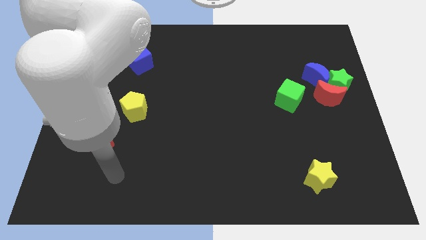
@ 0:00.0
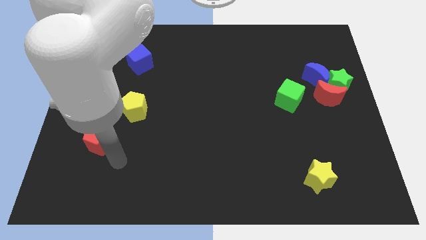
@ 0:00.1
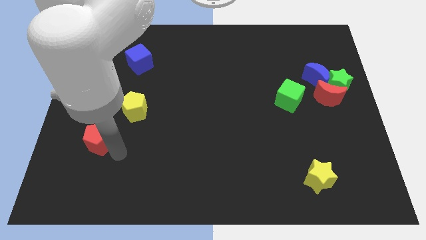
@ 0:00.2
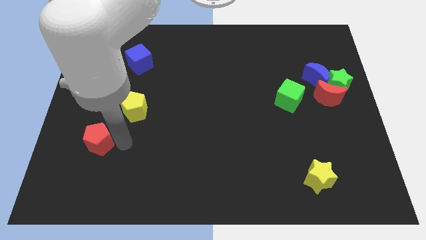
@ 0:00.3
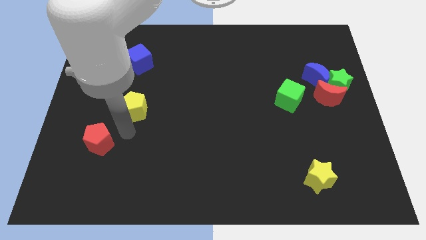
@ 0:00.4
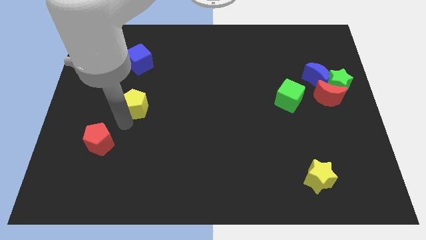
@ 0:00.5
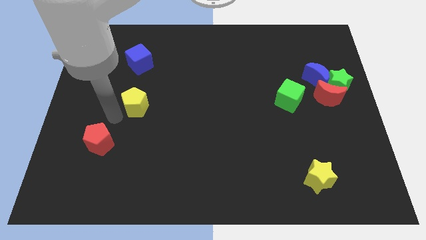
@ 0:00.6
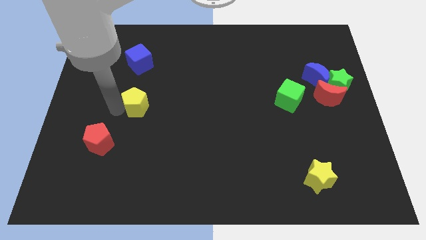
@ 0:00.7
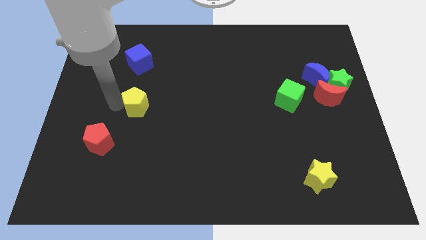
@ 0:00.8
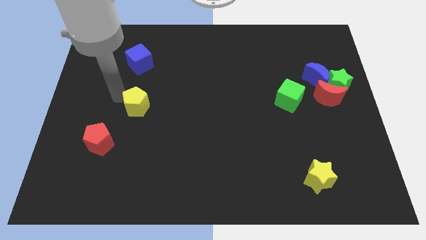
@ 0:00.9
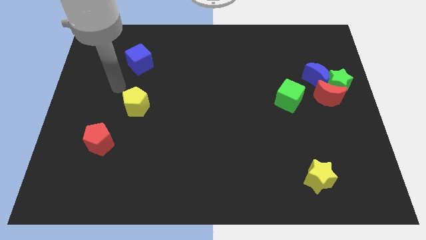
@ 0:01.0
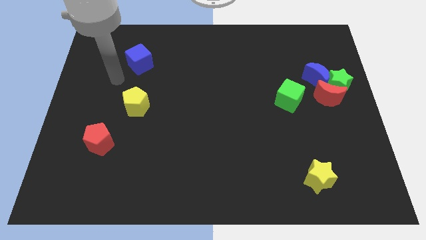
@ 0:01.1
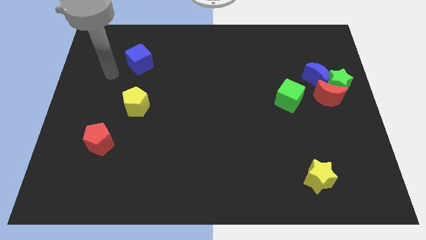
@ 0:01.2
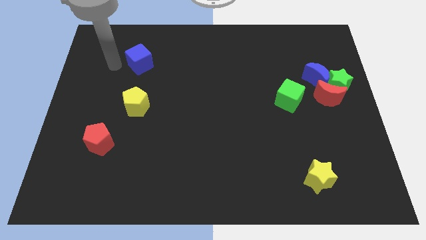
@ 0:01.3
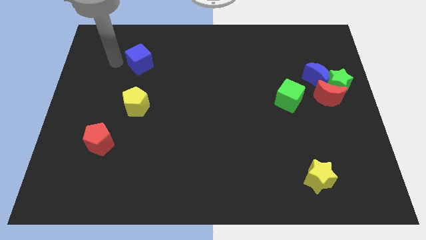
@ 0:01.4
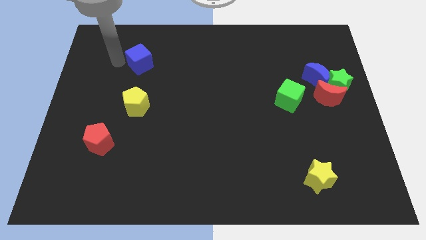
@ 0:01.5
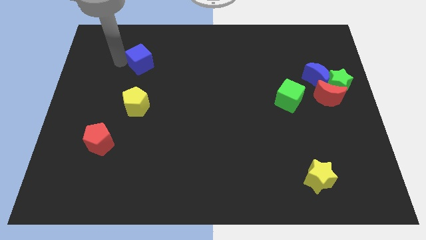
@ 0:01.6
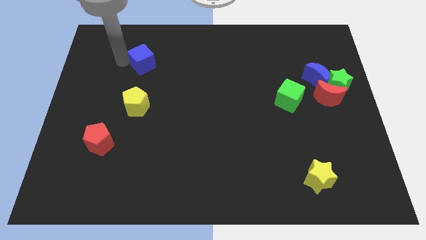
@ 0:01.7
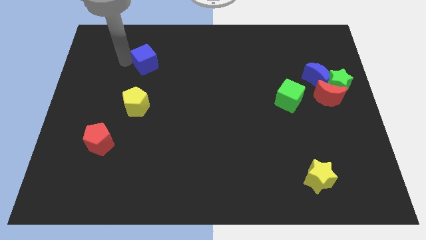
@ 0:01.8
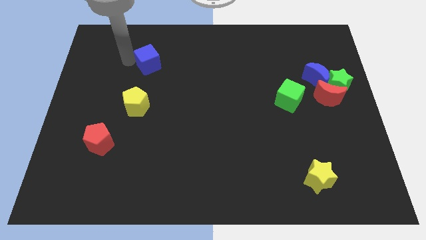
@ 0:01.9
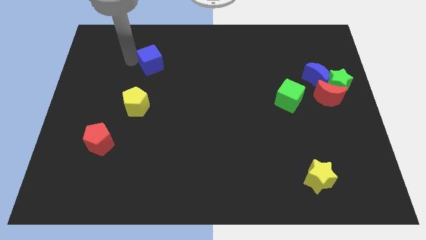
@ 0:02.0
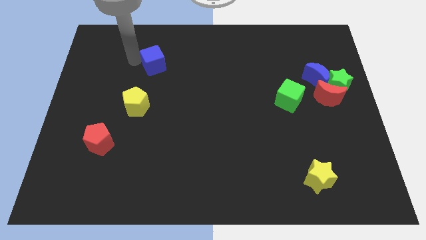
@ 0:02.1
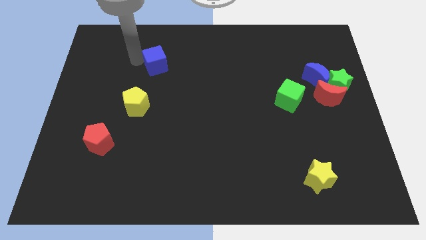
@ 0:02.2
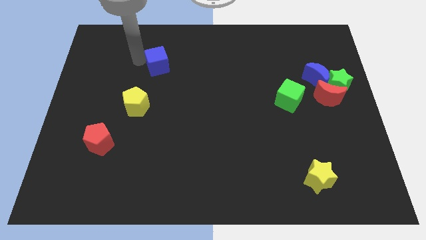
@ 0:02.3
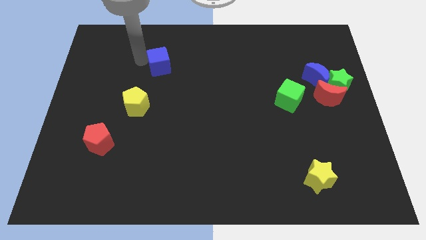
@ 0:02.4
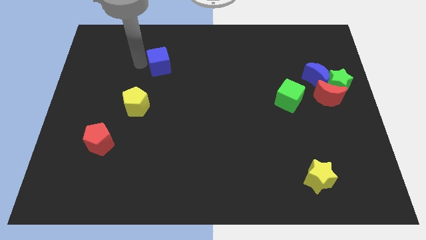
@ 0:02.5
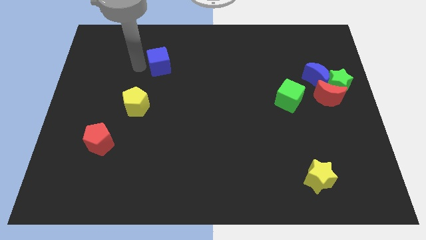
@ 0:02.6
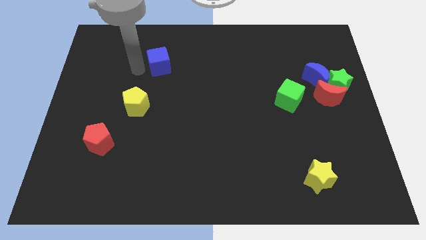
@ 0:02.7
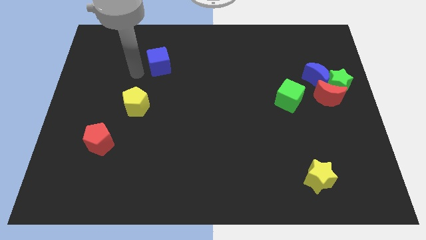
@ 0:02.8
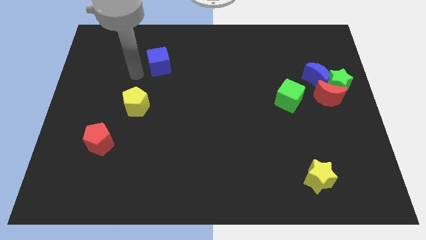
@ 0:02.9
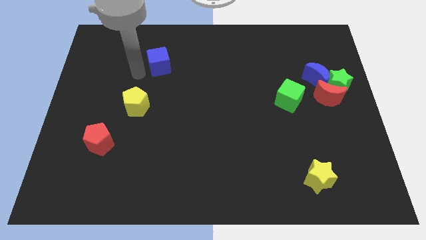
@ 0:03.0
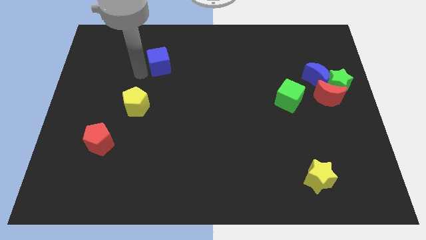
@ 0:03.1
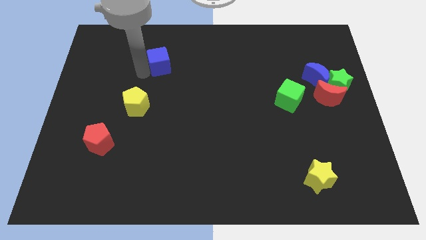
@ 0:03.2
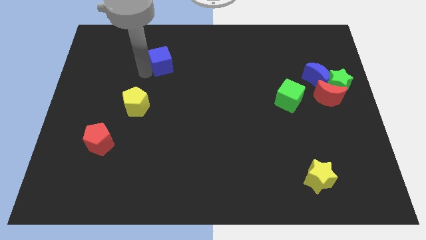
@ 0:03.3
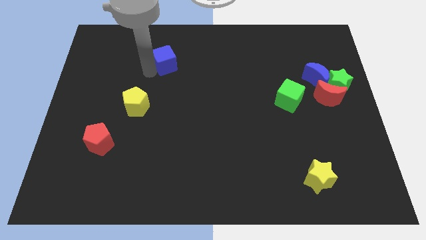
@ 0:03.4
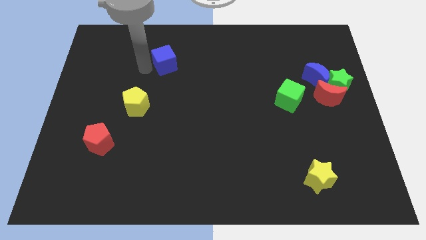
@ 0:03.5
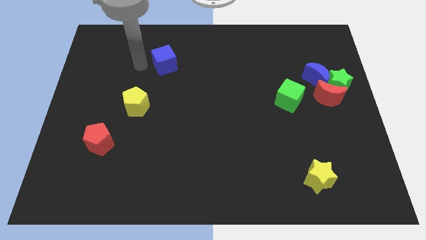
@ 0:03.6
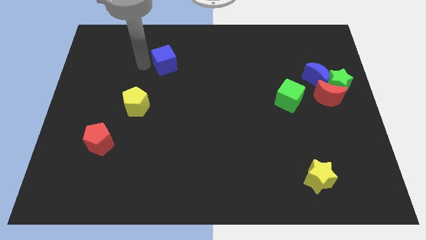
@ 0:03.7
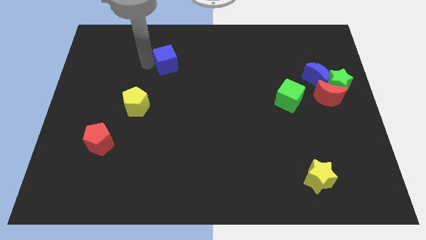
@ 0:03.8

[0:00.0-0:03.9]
move the blue cube a little bit right

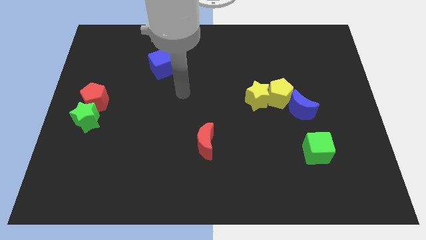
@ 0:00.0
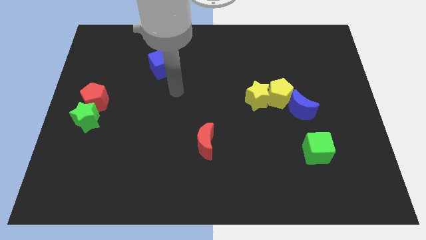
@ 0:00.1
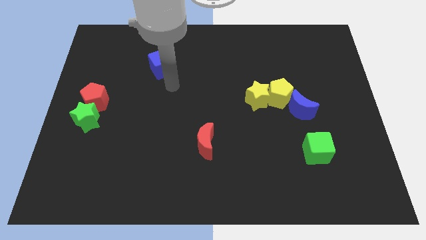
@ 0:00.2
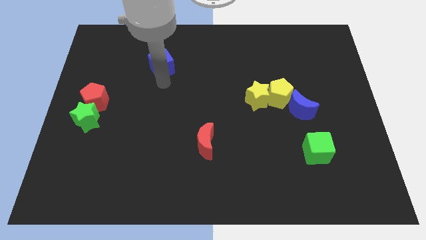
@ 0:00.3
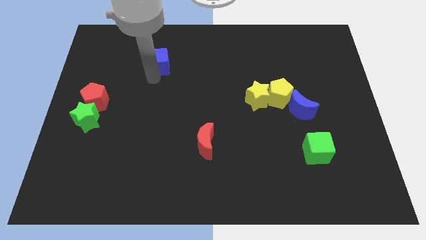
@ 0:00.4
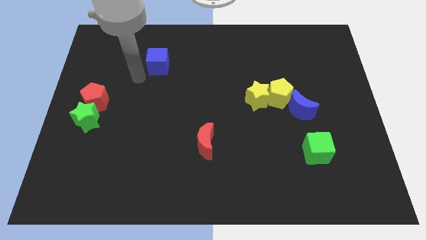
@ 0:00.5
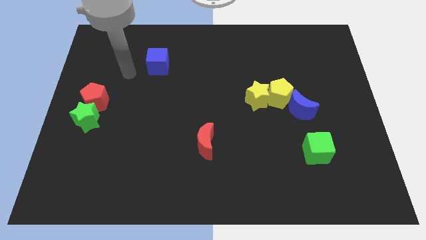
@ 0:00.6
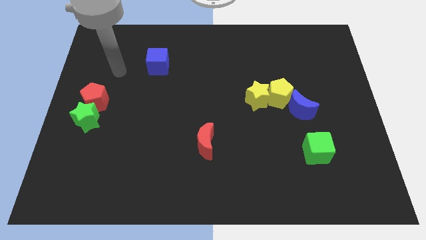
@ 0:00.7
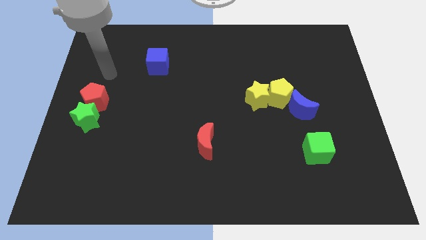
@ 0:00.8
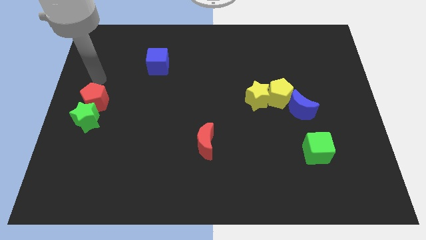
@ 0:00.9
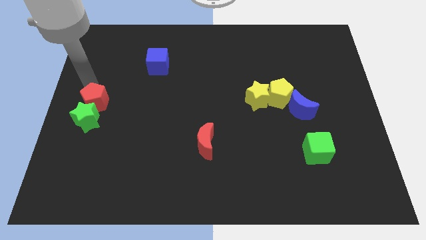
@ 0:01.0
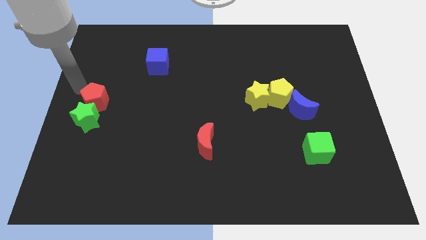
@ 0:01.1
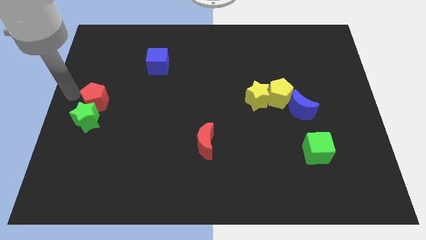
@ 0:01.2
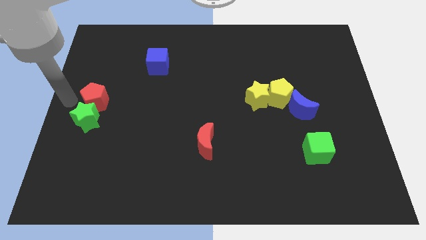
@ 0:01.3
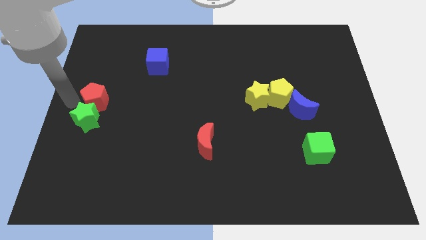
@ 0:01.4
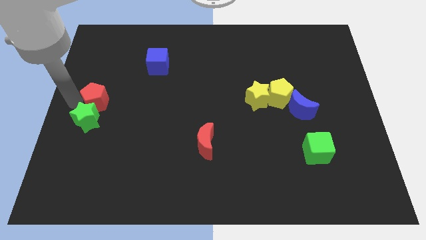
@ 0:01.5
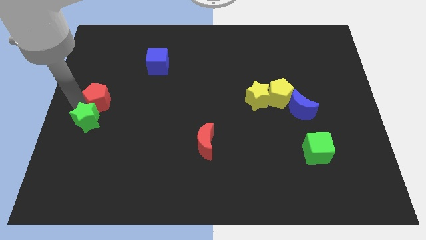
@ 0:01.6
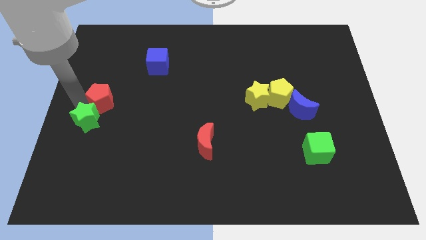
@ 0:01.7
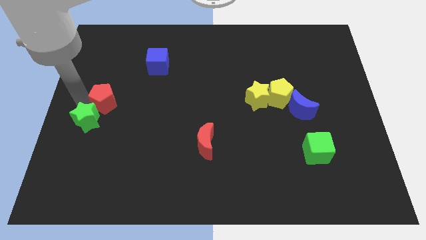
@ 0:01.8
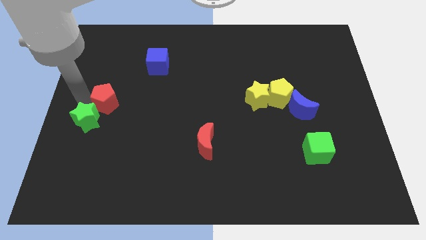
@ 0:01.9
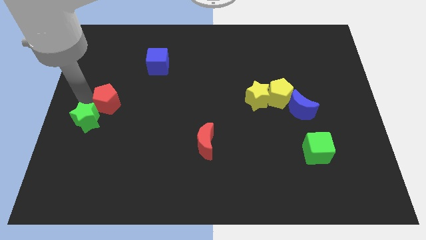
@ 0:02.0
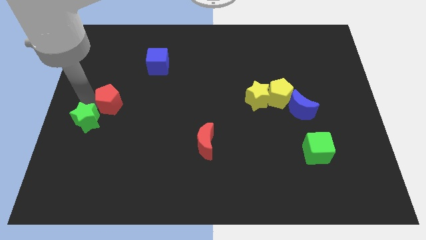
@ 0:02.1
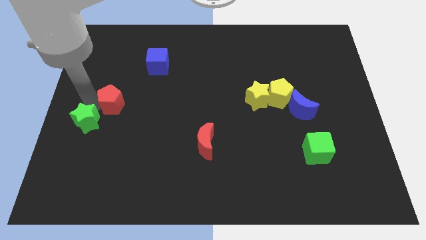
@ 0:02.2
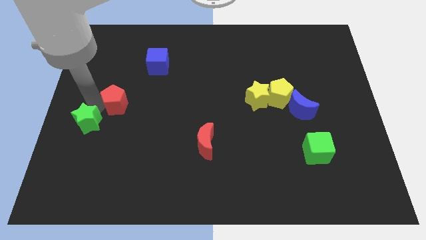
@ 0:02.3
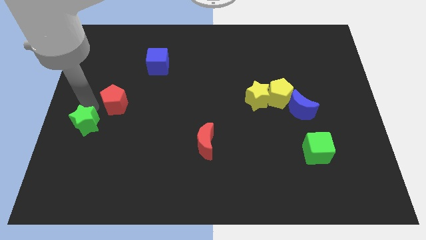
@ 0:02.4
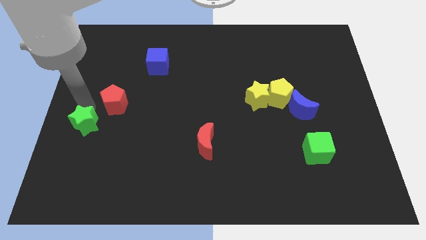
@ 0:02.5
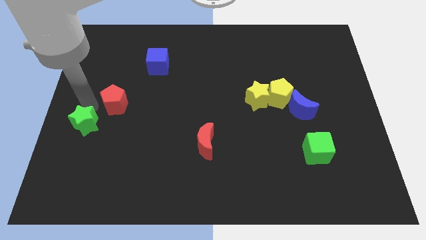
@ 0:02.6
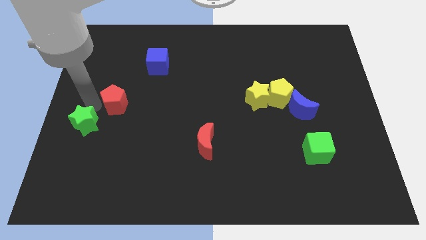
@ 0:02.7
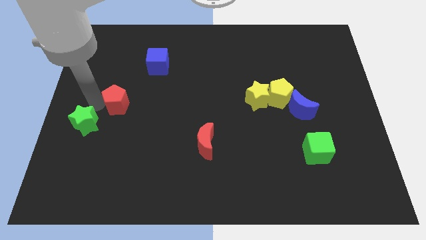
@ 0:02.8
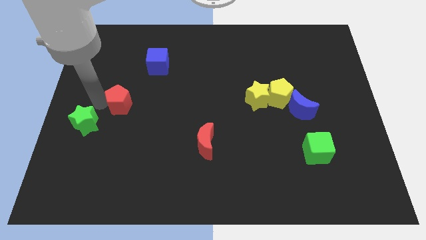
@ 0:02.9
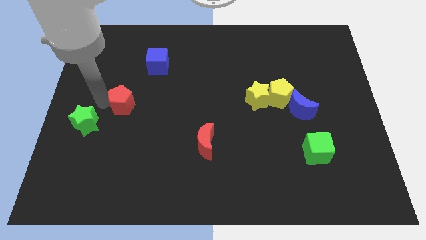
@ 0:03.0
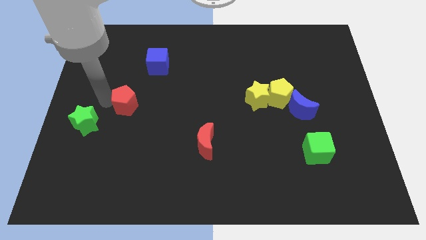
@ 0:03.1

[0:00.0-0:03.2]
move the red pentagon a little to the right

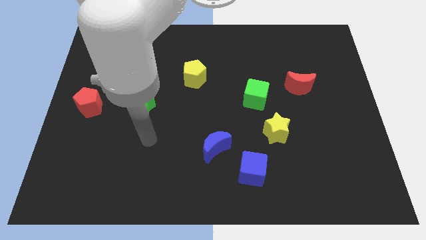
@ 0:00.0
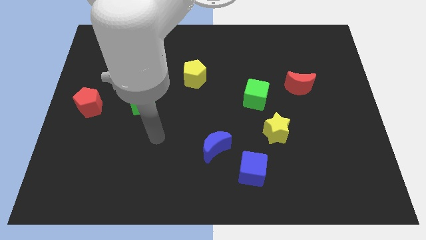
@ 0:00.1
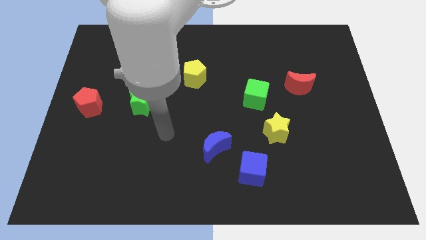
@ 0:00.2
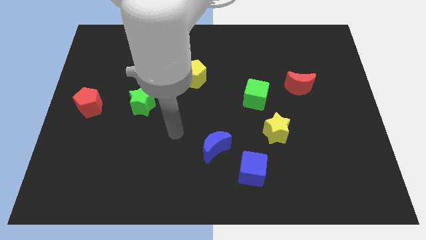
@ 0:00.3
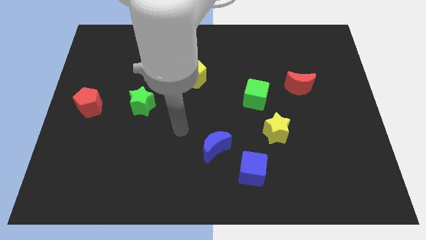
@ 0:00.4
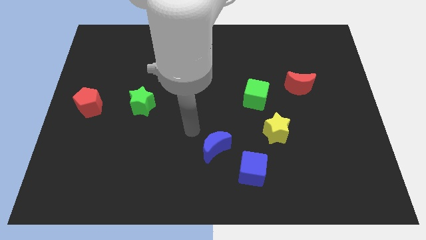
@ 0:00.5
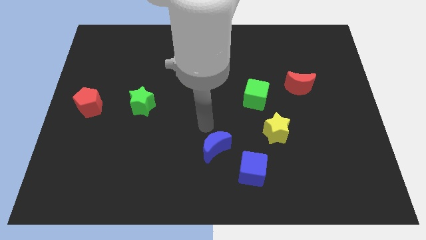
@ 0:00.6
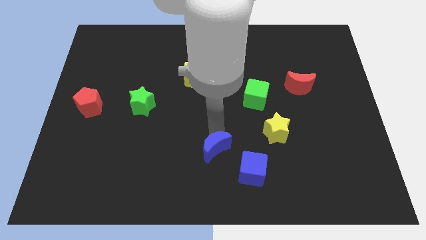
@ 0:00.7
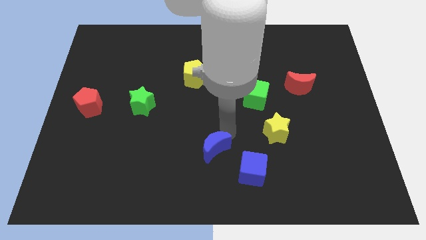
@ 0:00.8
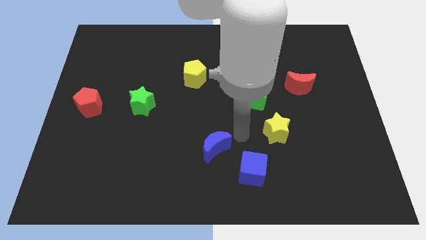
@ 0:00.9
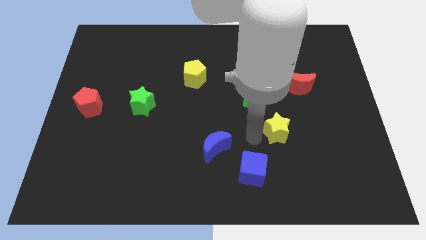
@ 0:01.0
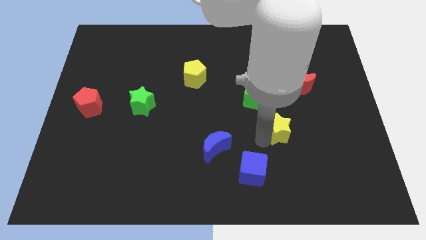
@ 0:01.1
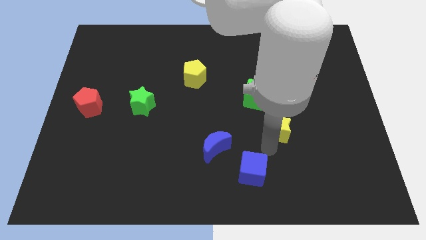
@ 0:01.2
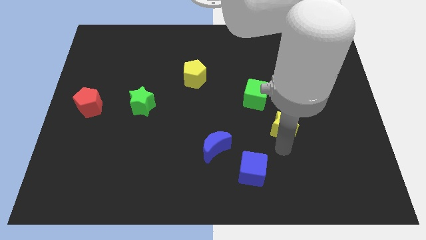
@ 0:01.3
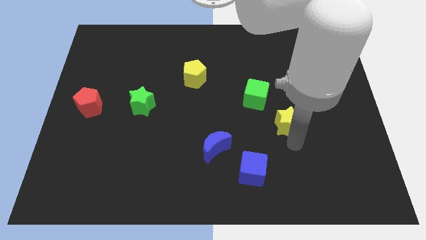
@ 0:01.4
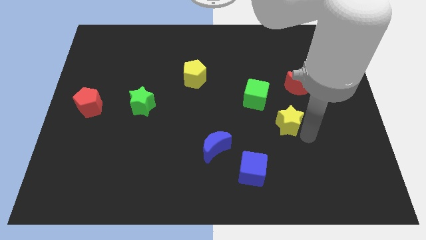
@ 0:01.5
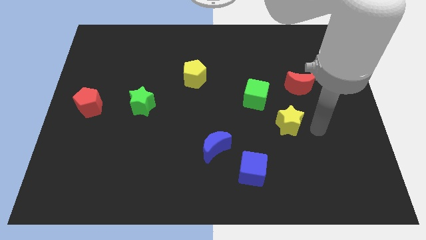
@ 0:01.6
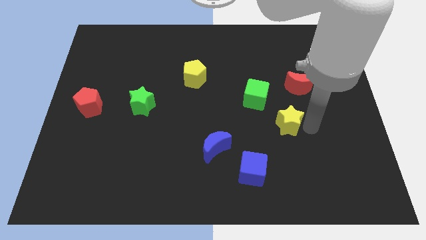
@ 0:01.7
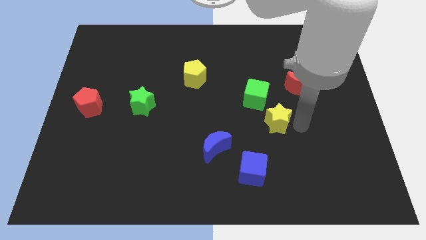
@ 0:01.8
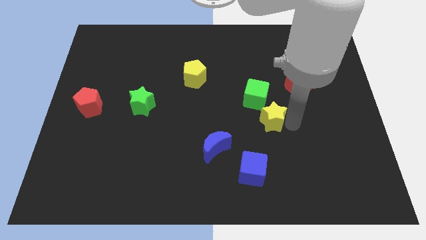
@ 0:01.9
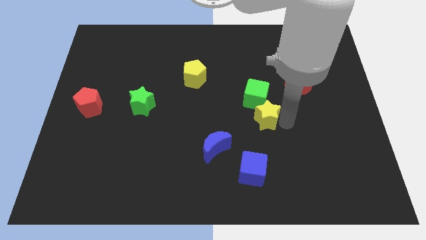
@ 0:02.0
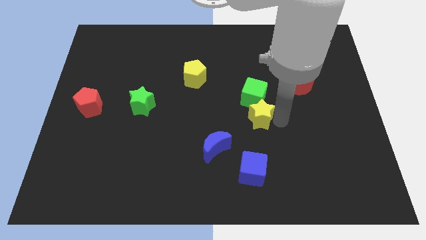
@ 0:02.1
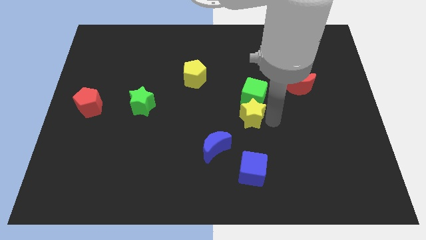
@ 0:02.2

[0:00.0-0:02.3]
slightly move the yellow star upwards and to the left
